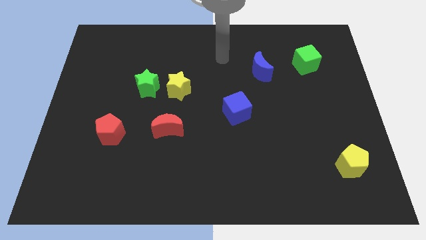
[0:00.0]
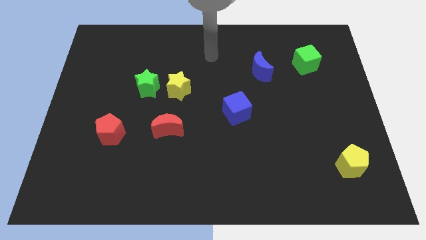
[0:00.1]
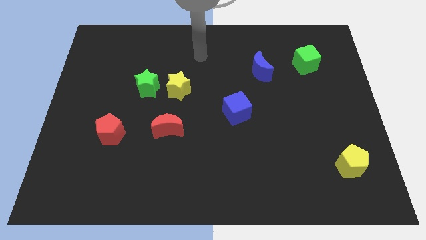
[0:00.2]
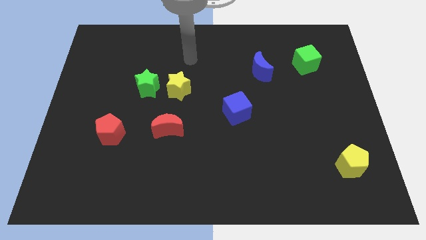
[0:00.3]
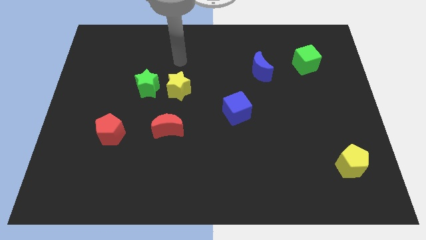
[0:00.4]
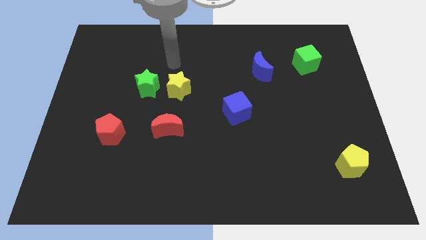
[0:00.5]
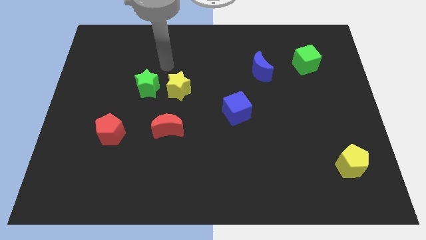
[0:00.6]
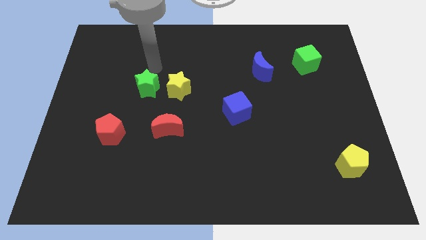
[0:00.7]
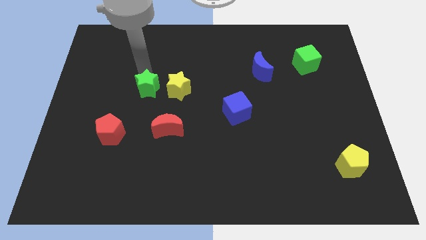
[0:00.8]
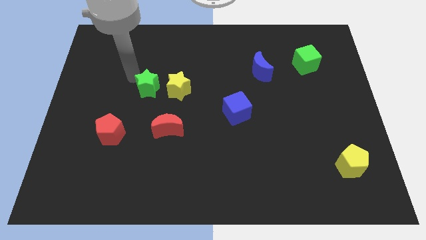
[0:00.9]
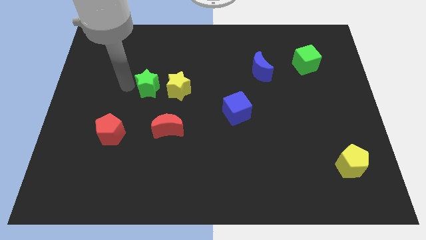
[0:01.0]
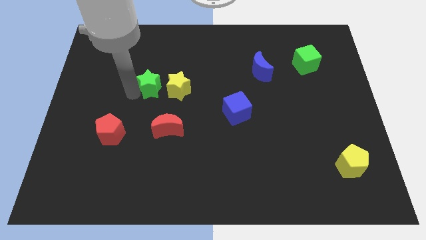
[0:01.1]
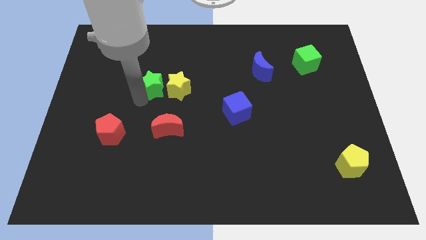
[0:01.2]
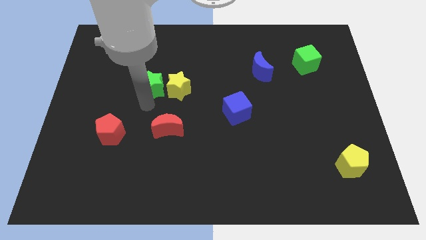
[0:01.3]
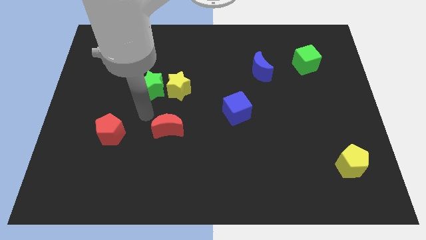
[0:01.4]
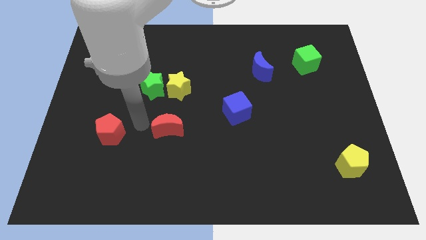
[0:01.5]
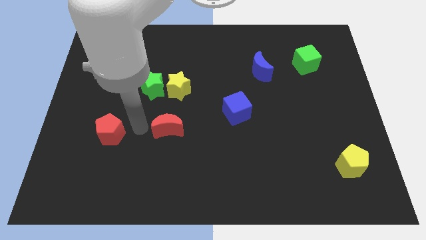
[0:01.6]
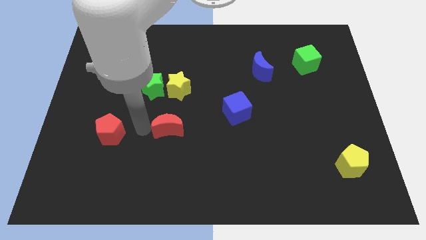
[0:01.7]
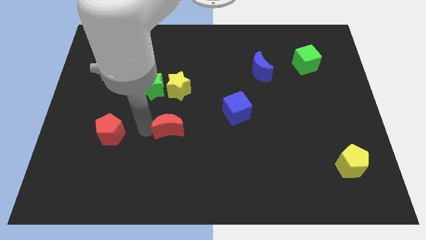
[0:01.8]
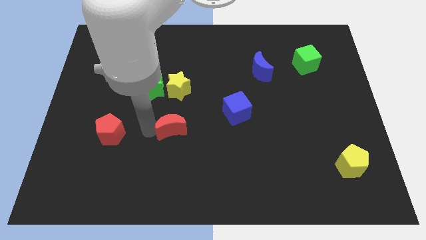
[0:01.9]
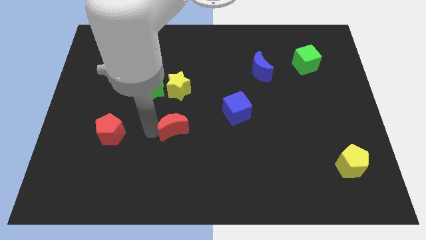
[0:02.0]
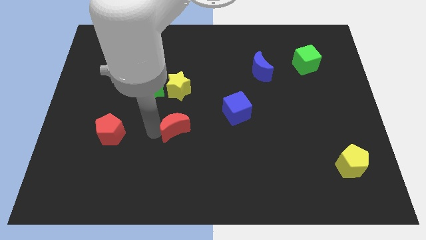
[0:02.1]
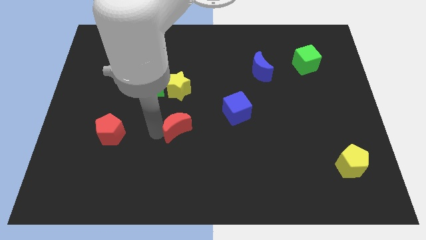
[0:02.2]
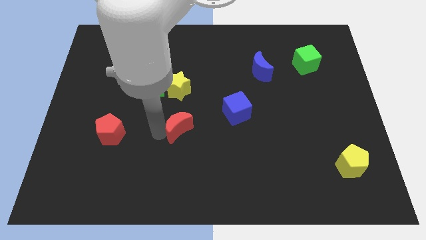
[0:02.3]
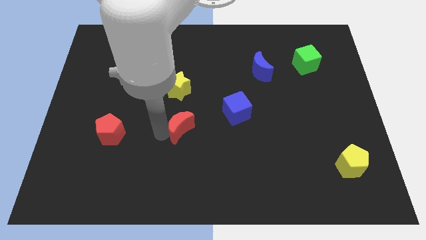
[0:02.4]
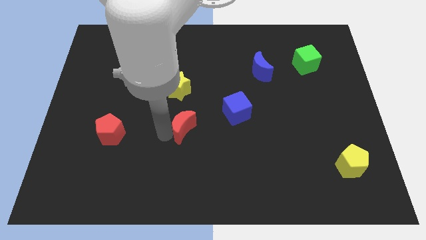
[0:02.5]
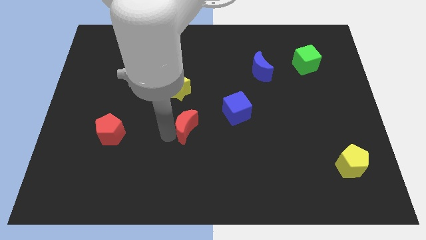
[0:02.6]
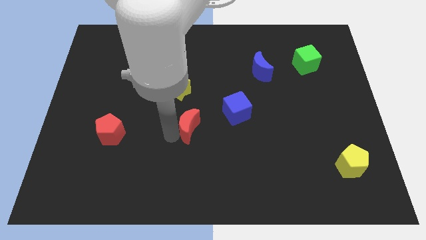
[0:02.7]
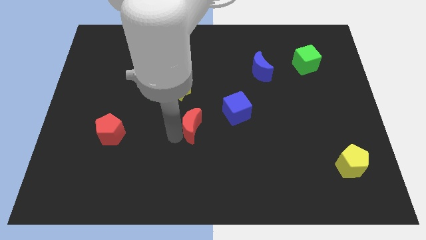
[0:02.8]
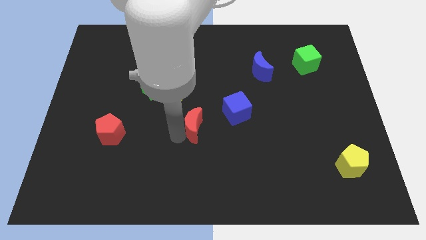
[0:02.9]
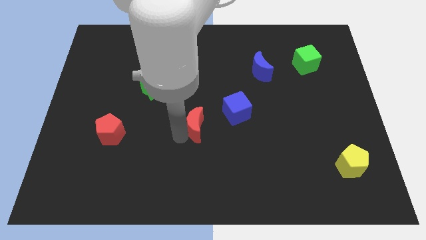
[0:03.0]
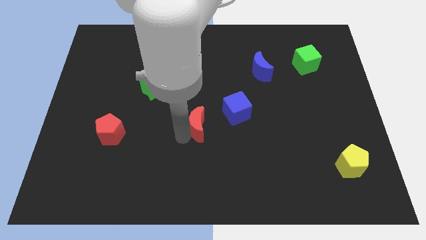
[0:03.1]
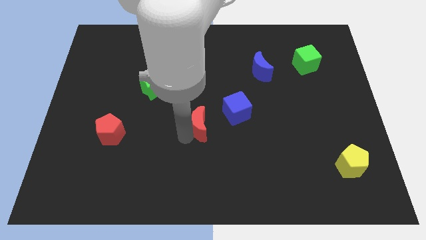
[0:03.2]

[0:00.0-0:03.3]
slightly slide the red moon right

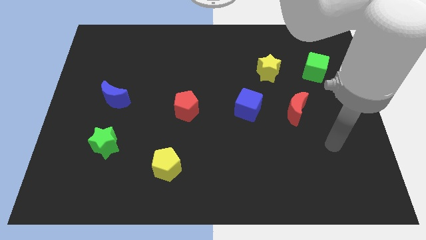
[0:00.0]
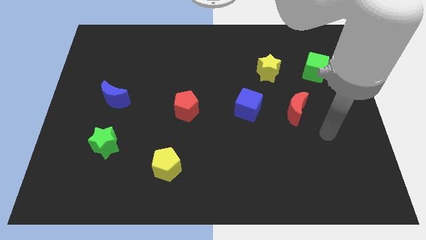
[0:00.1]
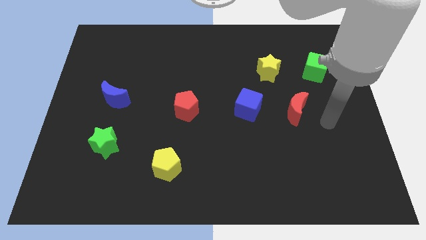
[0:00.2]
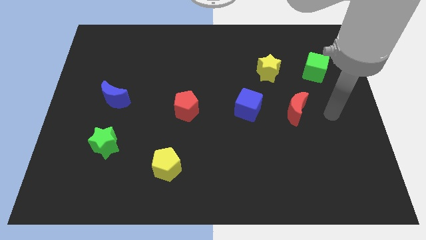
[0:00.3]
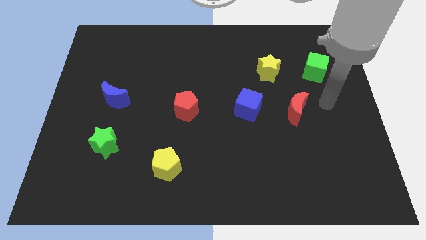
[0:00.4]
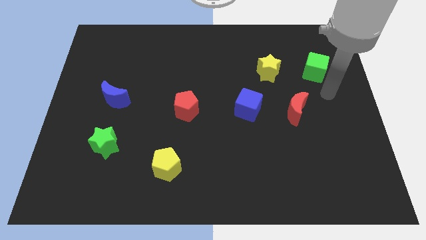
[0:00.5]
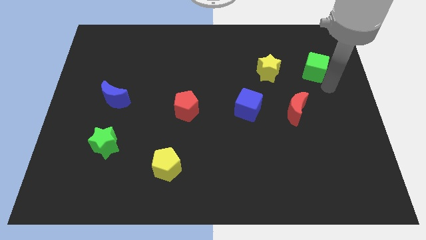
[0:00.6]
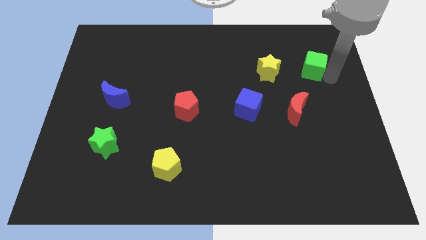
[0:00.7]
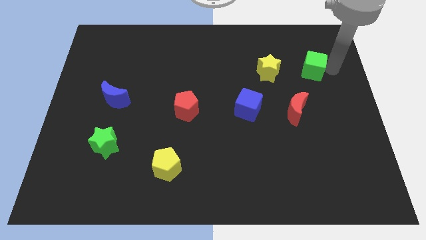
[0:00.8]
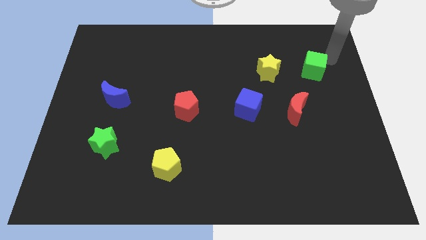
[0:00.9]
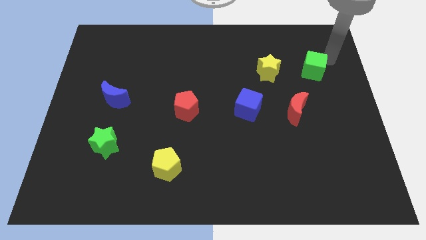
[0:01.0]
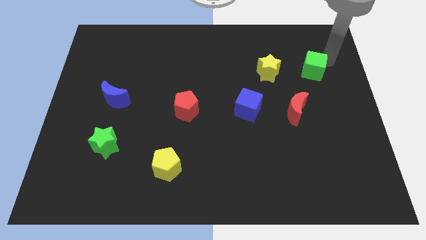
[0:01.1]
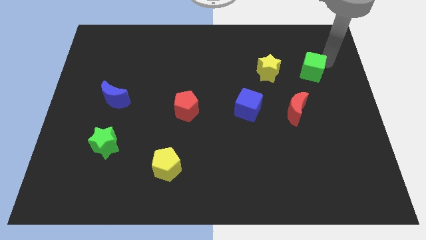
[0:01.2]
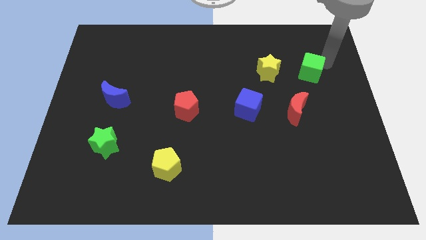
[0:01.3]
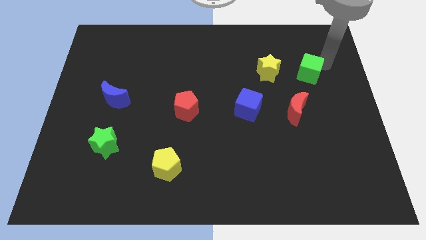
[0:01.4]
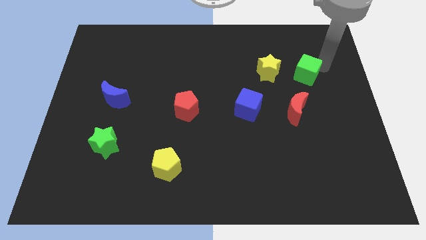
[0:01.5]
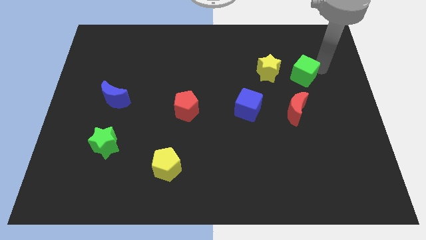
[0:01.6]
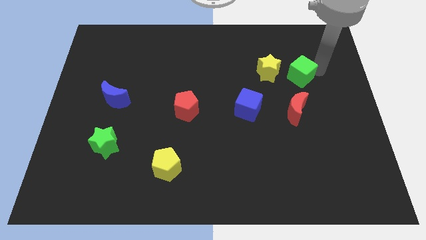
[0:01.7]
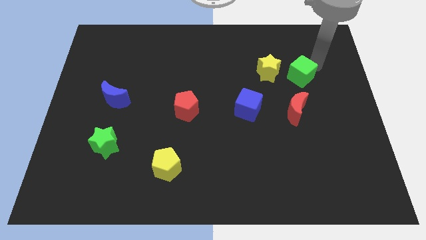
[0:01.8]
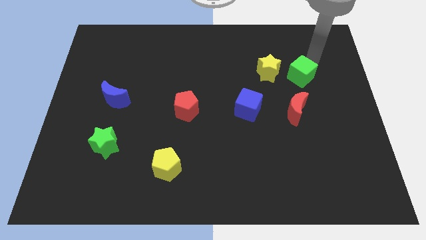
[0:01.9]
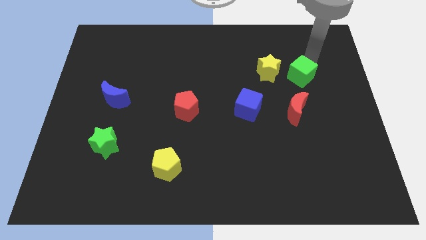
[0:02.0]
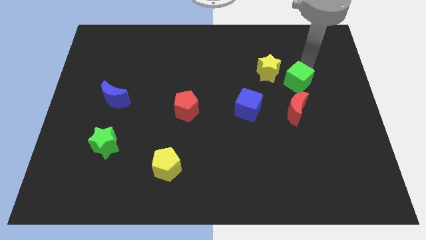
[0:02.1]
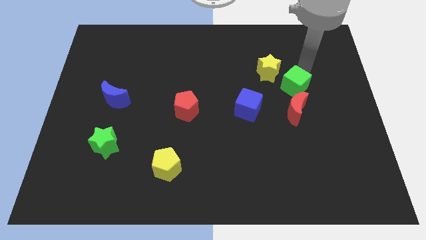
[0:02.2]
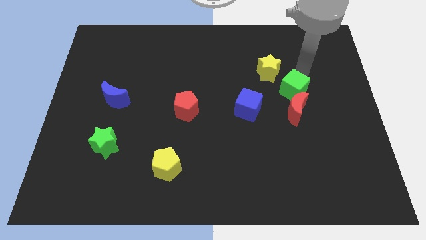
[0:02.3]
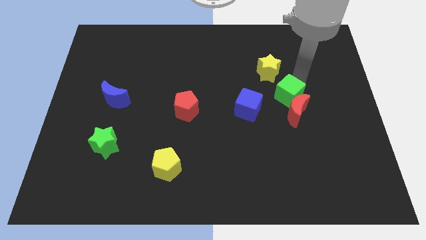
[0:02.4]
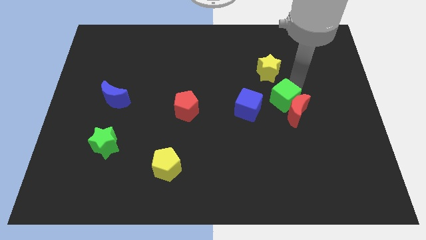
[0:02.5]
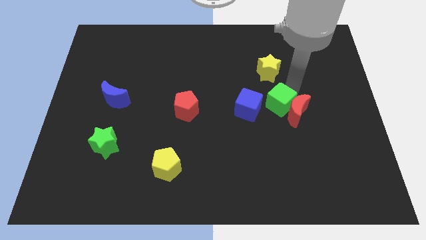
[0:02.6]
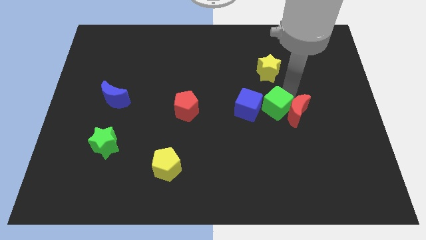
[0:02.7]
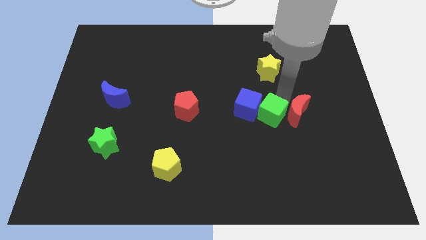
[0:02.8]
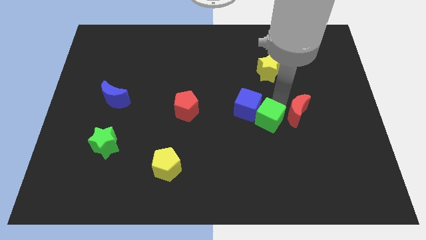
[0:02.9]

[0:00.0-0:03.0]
slide the green cube downwards and then left

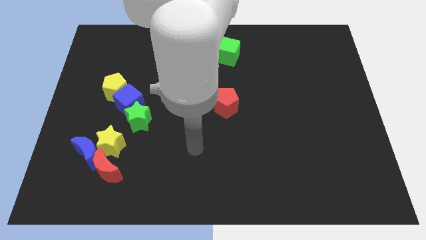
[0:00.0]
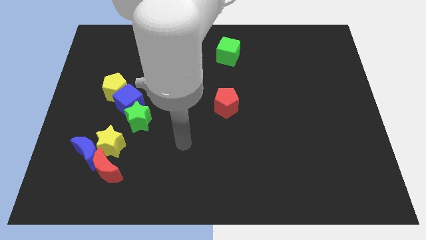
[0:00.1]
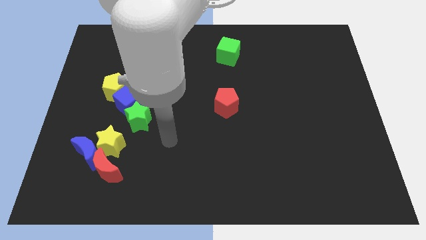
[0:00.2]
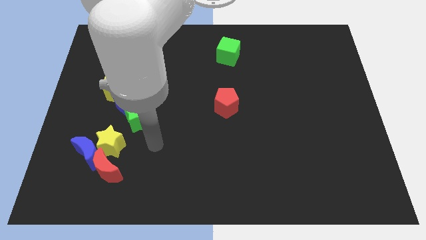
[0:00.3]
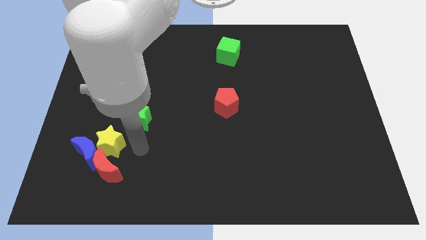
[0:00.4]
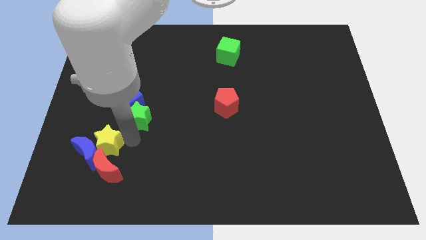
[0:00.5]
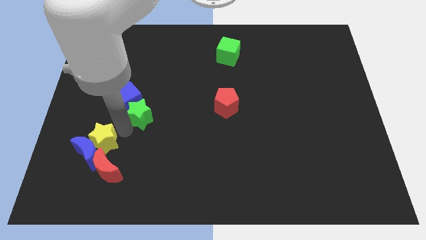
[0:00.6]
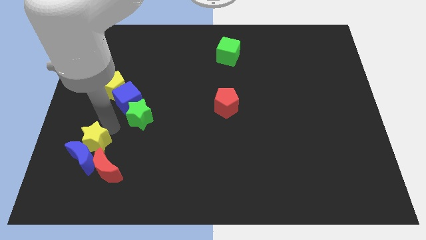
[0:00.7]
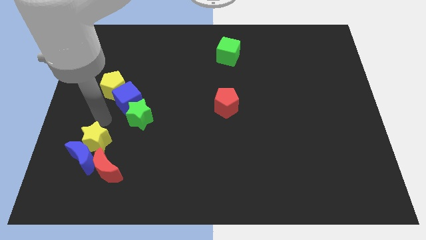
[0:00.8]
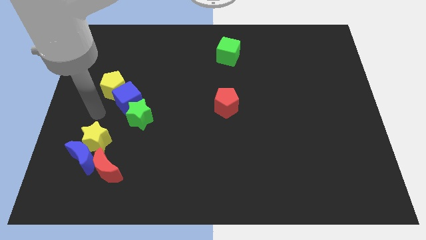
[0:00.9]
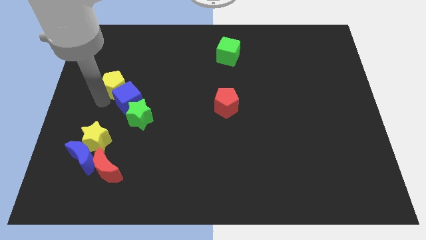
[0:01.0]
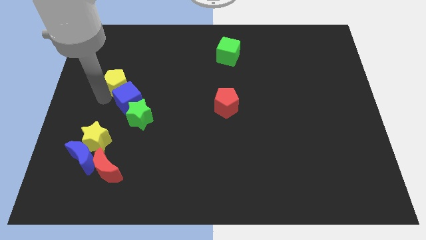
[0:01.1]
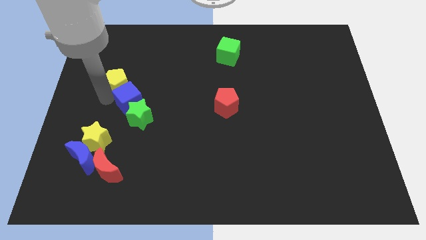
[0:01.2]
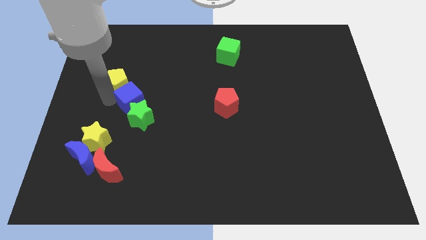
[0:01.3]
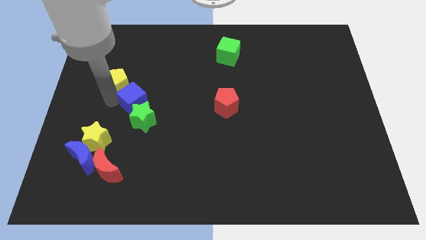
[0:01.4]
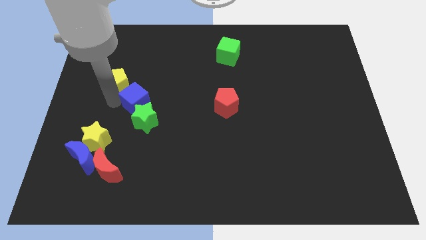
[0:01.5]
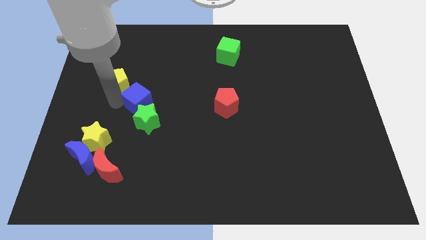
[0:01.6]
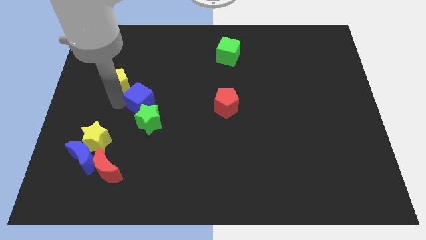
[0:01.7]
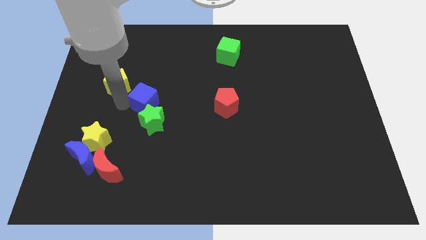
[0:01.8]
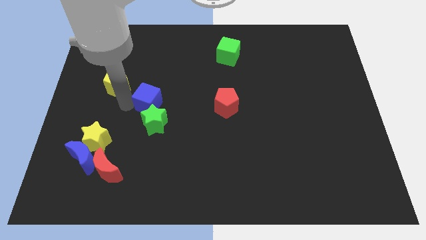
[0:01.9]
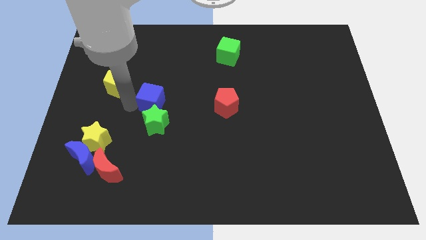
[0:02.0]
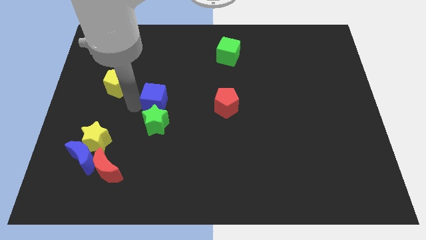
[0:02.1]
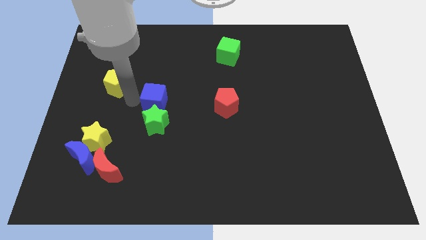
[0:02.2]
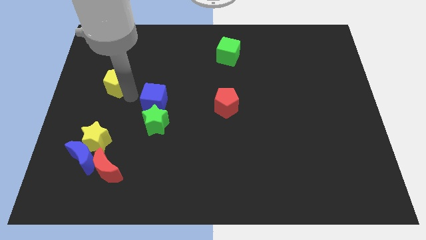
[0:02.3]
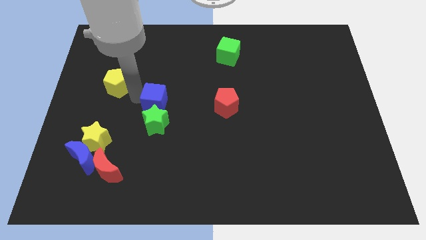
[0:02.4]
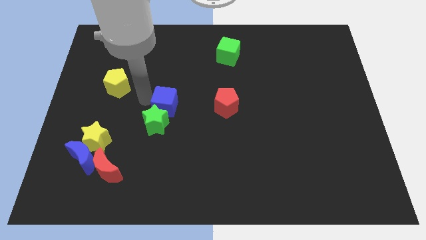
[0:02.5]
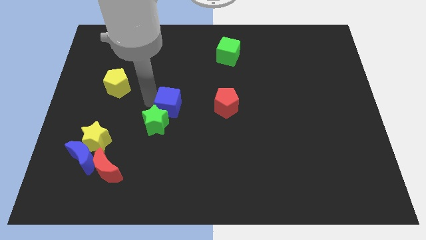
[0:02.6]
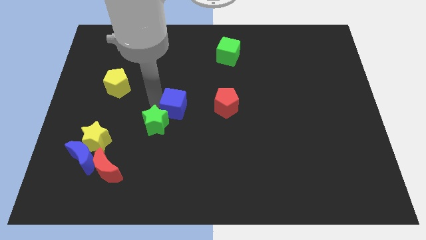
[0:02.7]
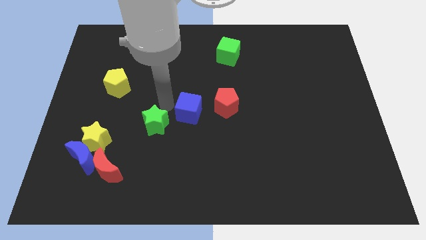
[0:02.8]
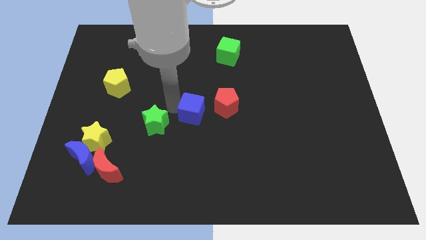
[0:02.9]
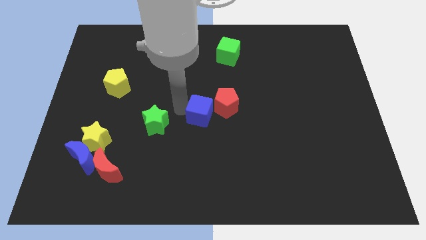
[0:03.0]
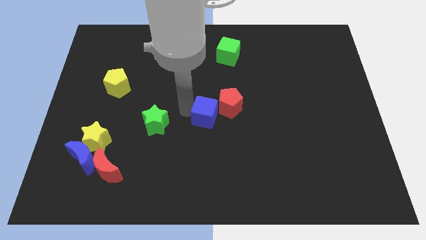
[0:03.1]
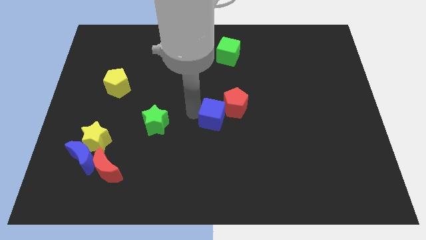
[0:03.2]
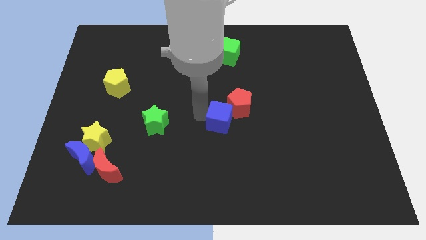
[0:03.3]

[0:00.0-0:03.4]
push the blue cube right
